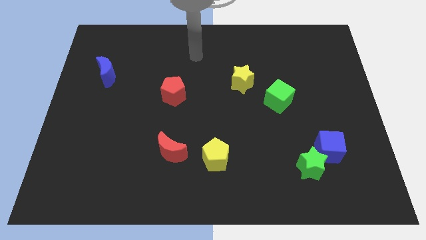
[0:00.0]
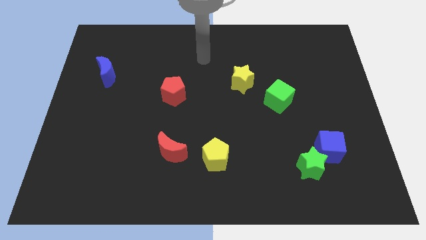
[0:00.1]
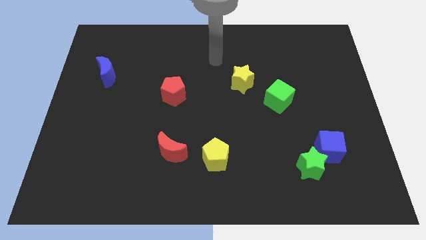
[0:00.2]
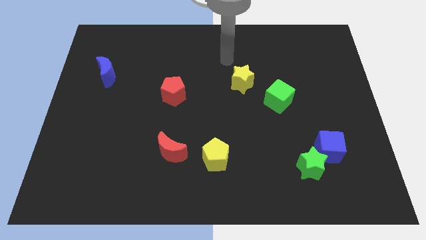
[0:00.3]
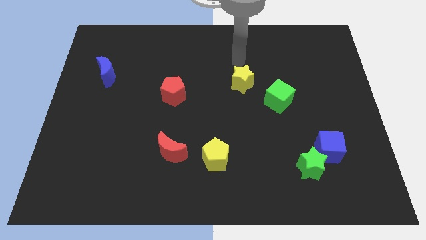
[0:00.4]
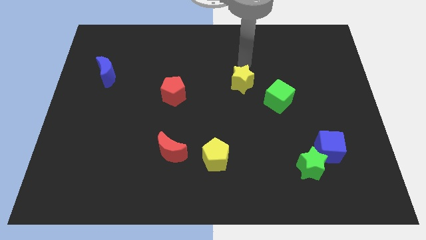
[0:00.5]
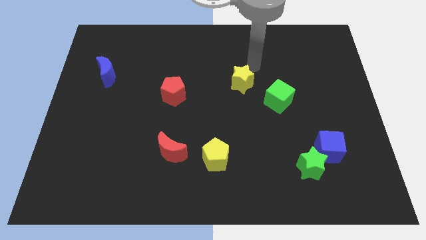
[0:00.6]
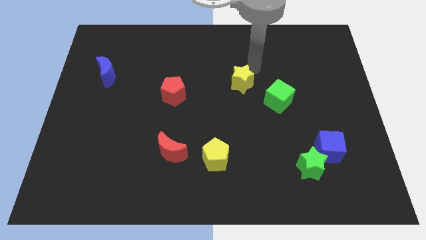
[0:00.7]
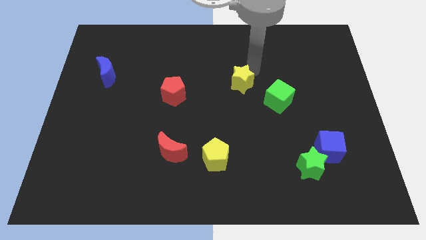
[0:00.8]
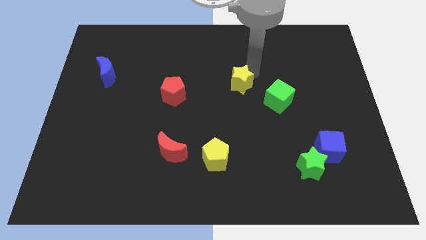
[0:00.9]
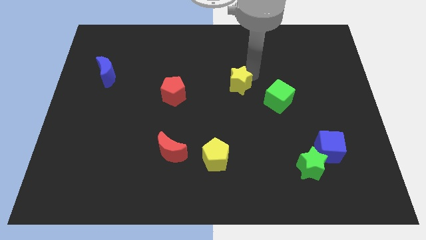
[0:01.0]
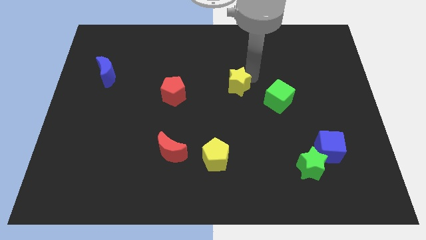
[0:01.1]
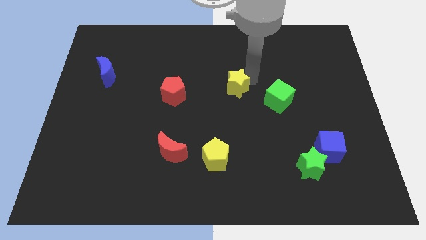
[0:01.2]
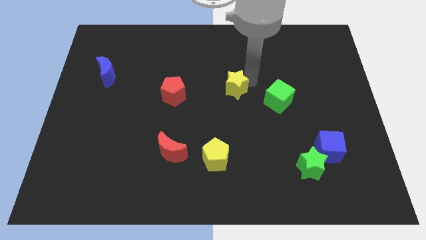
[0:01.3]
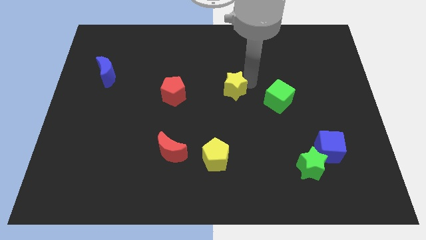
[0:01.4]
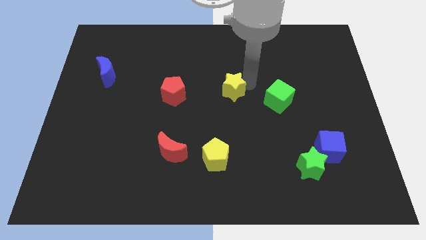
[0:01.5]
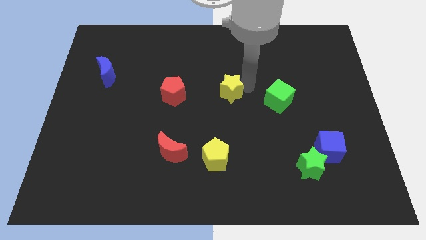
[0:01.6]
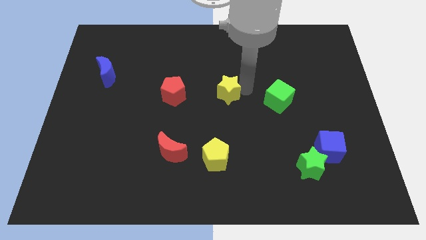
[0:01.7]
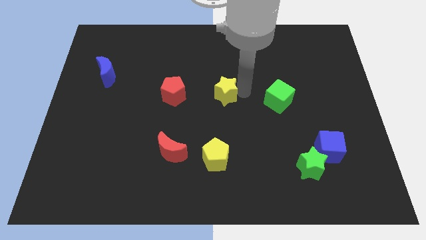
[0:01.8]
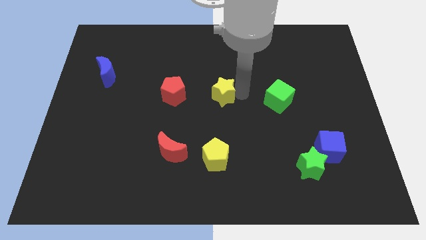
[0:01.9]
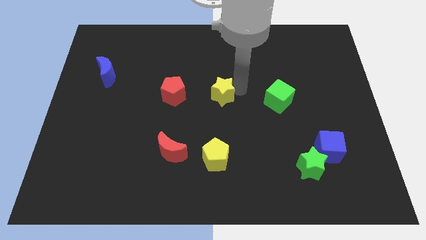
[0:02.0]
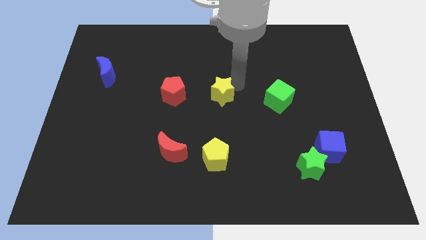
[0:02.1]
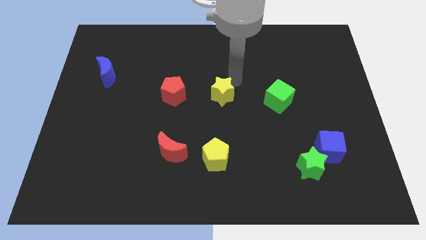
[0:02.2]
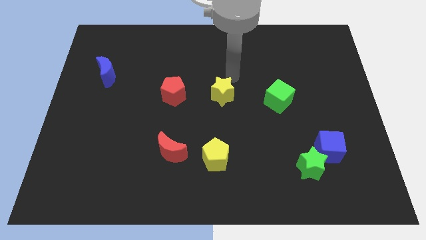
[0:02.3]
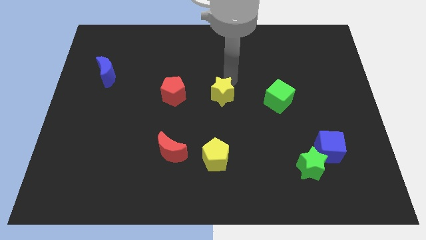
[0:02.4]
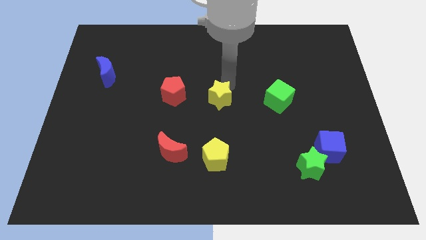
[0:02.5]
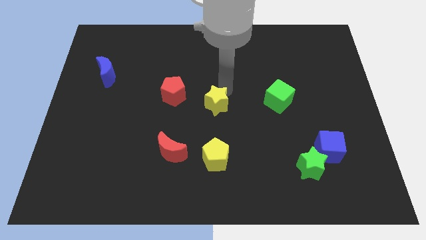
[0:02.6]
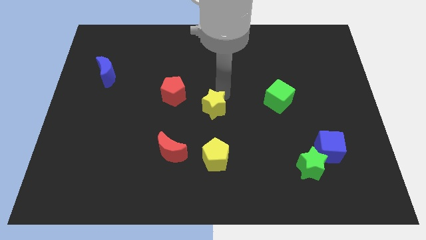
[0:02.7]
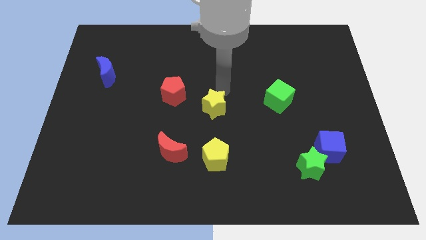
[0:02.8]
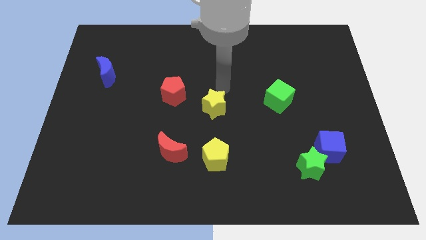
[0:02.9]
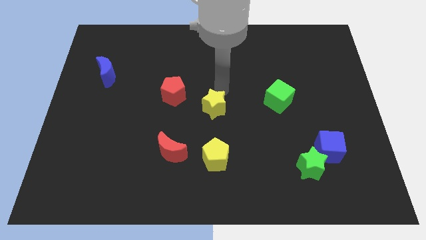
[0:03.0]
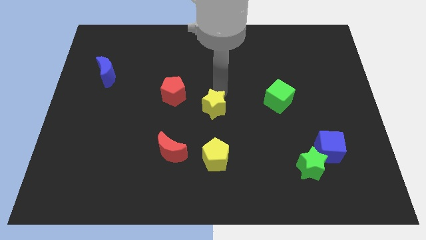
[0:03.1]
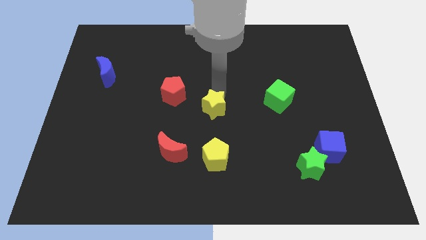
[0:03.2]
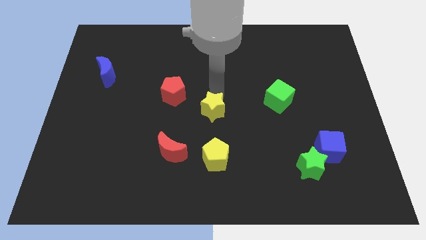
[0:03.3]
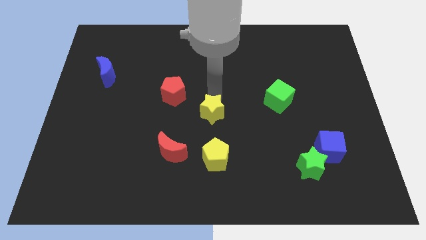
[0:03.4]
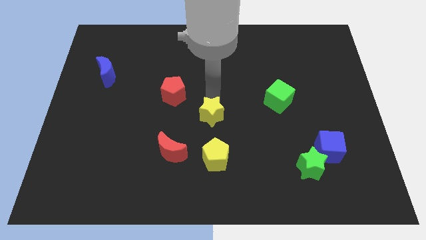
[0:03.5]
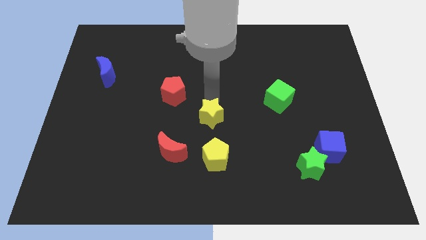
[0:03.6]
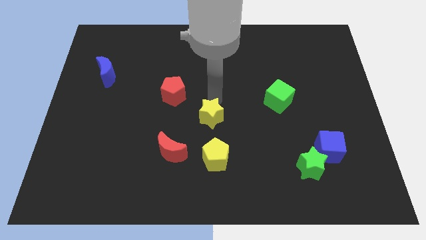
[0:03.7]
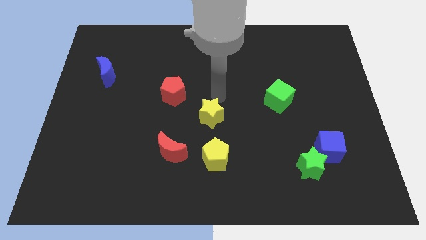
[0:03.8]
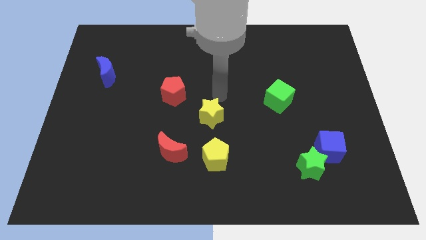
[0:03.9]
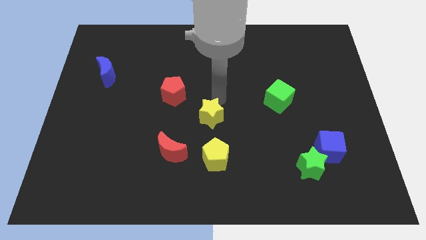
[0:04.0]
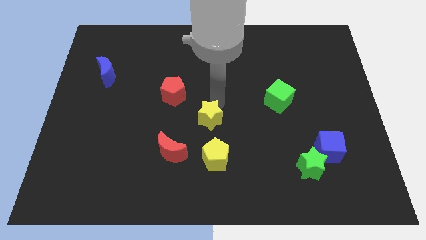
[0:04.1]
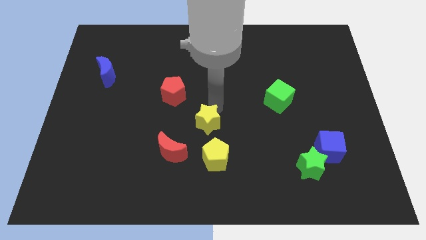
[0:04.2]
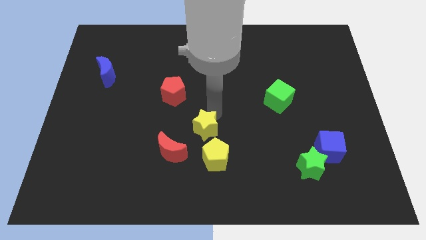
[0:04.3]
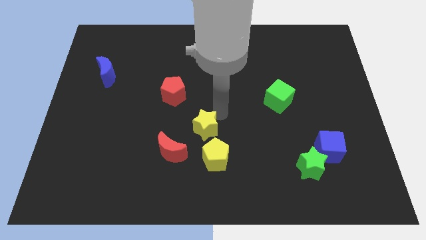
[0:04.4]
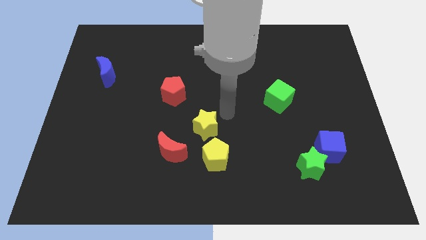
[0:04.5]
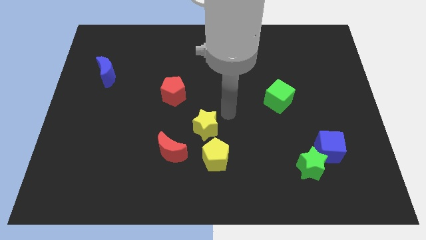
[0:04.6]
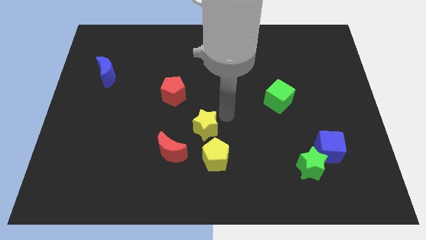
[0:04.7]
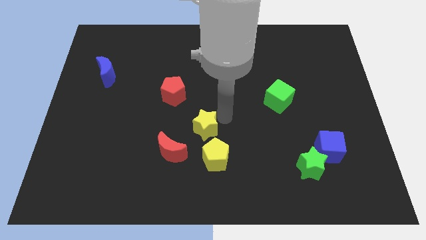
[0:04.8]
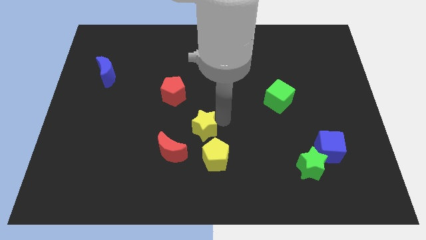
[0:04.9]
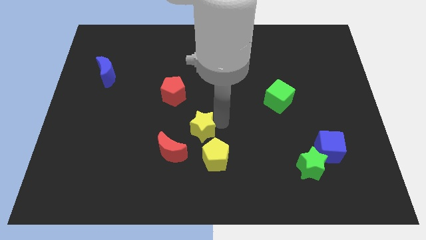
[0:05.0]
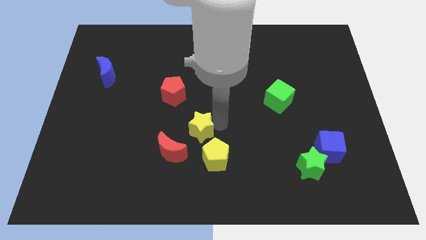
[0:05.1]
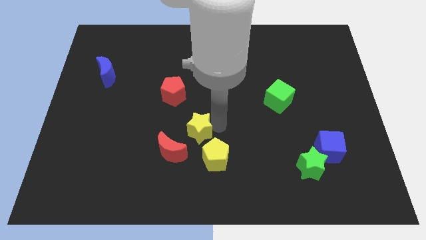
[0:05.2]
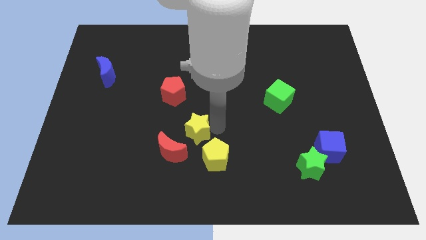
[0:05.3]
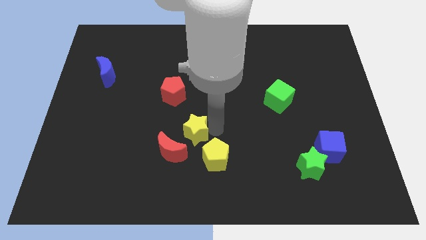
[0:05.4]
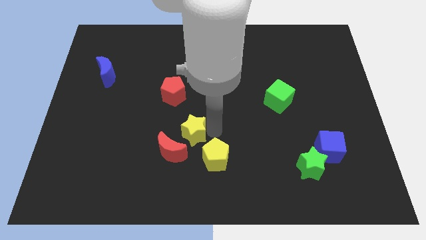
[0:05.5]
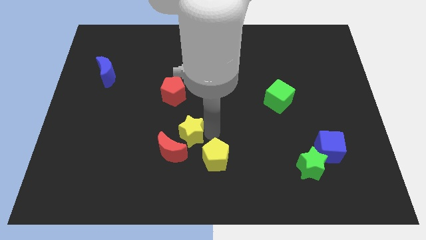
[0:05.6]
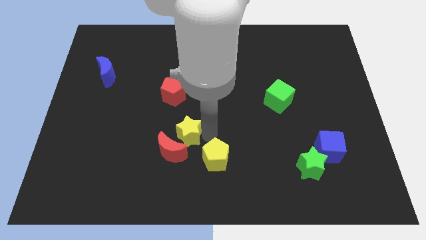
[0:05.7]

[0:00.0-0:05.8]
push the yellow star towards the red moon

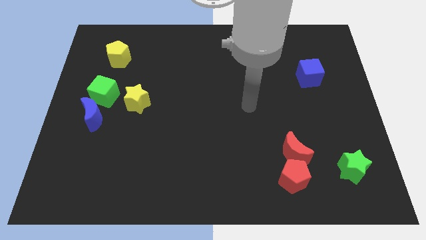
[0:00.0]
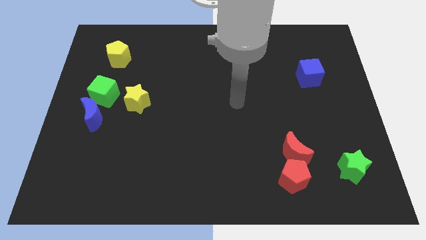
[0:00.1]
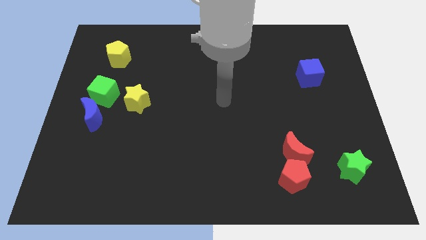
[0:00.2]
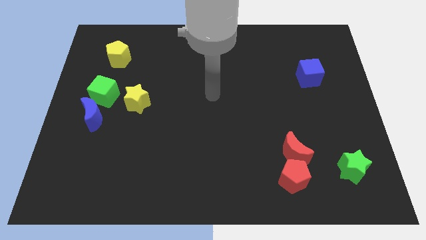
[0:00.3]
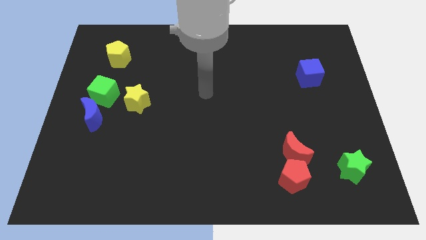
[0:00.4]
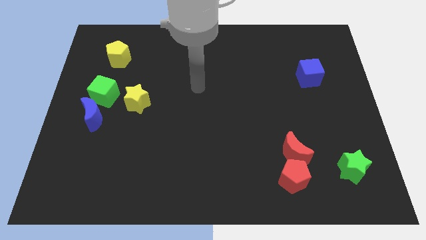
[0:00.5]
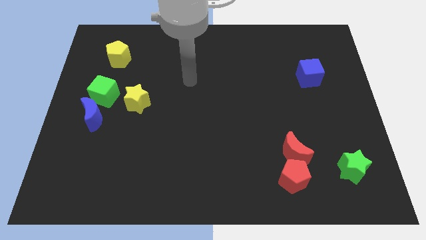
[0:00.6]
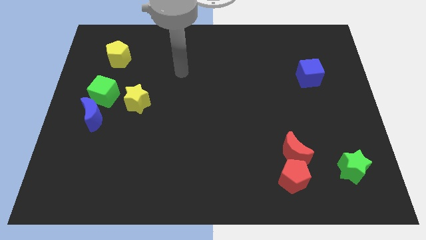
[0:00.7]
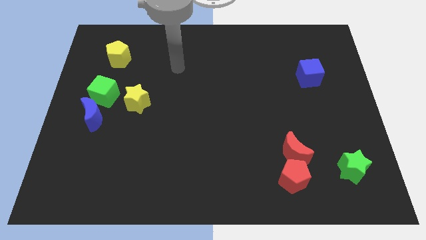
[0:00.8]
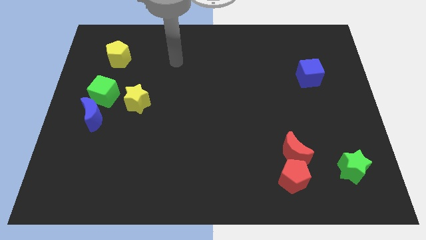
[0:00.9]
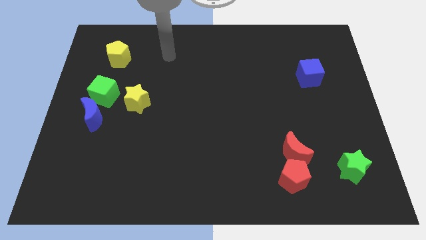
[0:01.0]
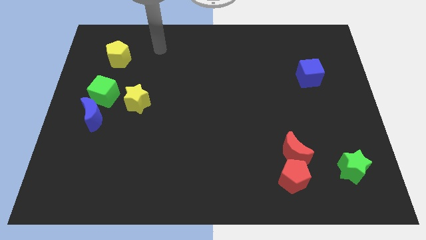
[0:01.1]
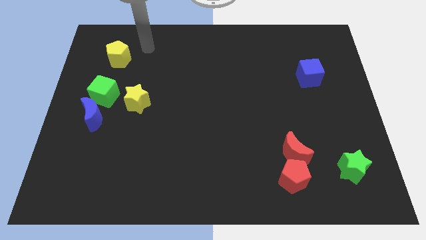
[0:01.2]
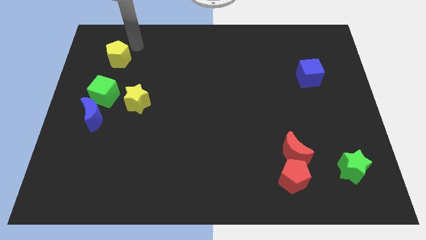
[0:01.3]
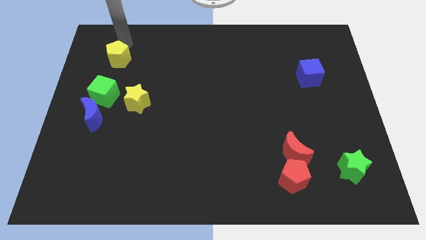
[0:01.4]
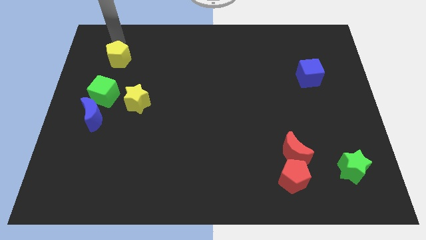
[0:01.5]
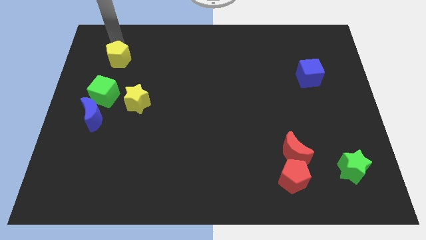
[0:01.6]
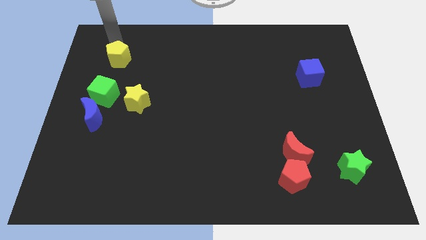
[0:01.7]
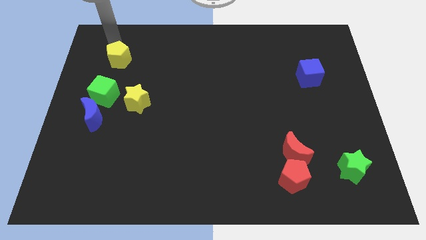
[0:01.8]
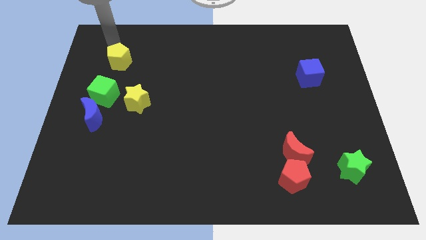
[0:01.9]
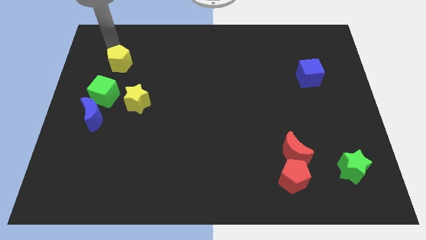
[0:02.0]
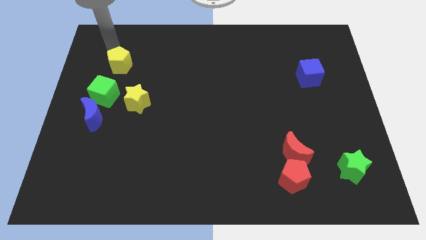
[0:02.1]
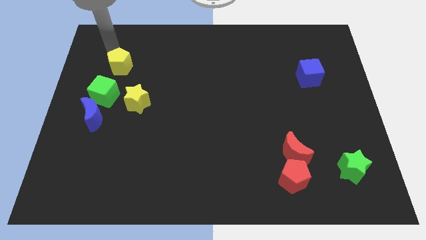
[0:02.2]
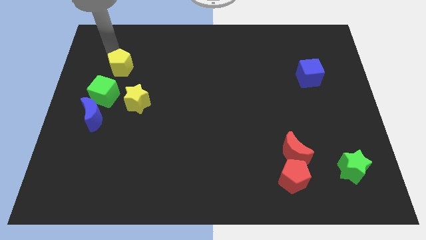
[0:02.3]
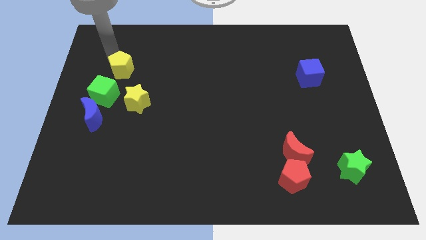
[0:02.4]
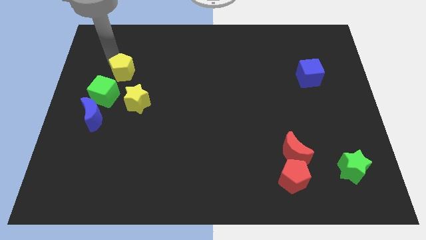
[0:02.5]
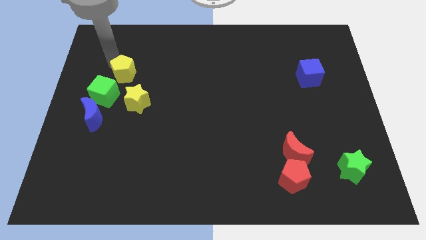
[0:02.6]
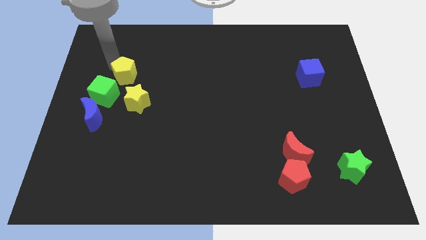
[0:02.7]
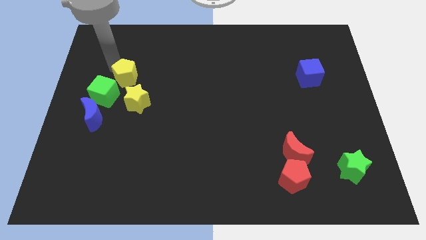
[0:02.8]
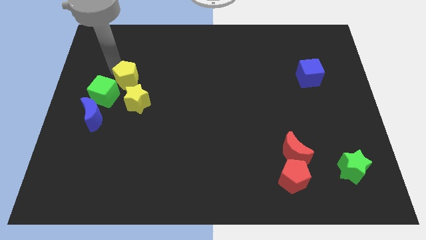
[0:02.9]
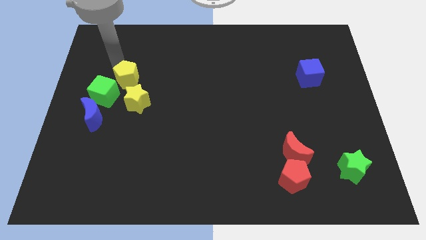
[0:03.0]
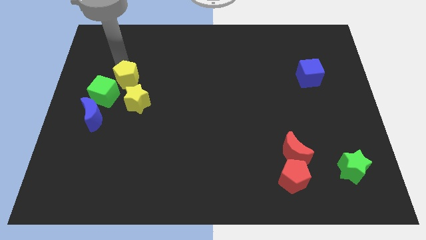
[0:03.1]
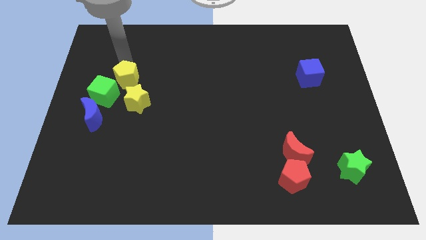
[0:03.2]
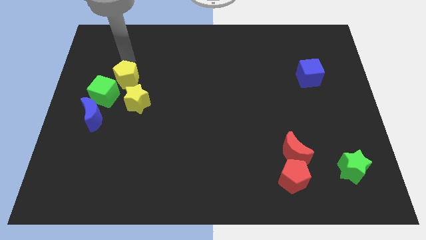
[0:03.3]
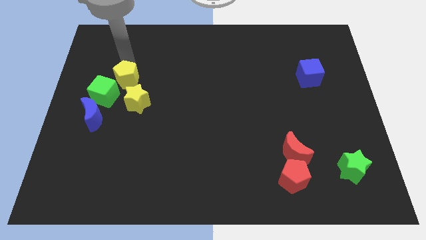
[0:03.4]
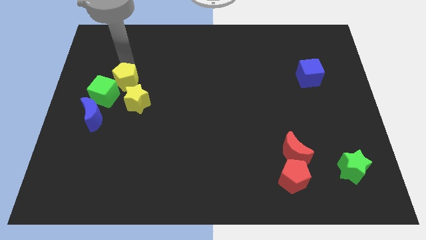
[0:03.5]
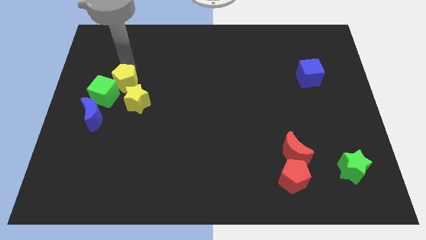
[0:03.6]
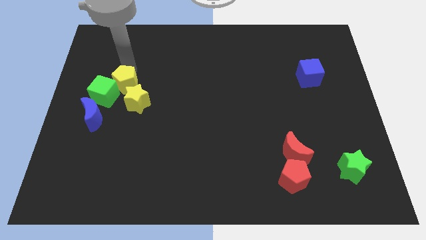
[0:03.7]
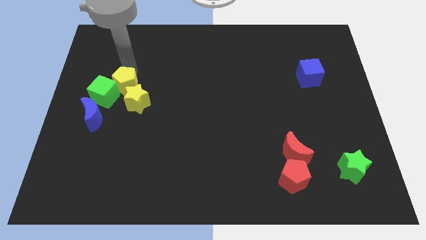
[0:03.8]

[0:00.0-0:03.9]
put the yellow pentagon towards the yellow star
